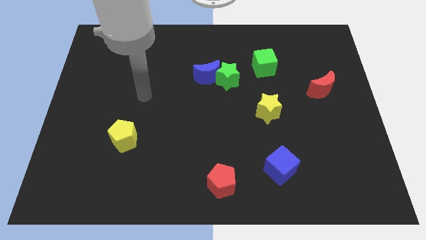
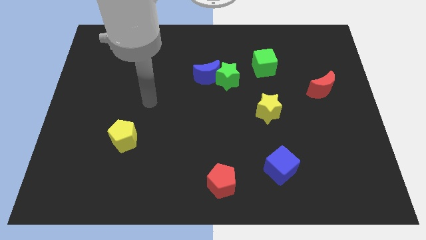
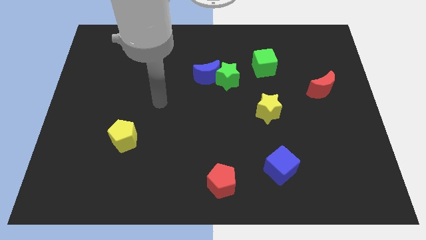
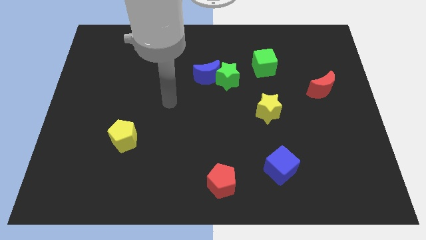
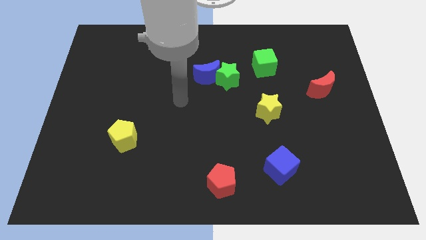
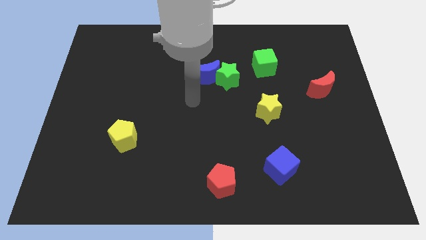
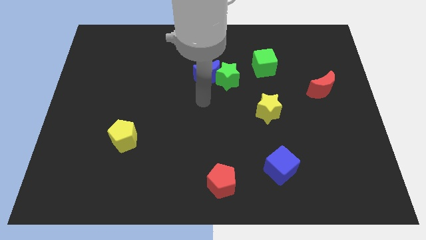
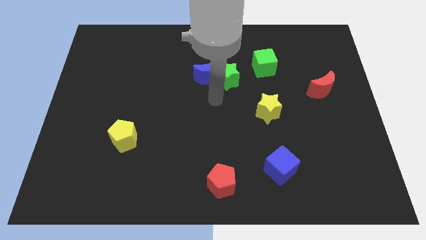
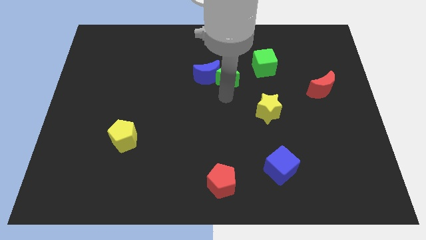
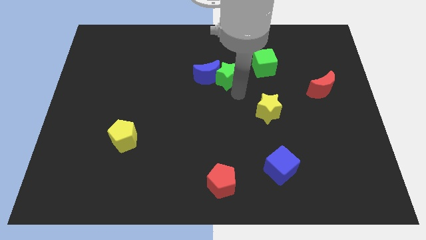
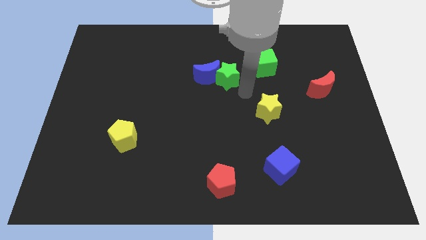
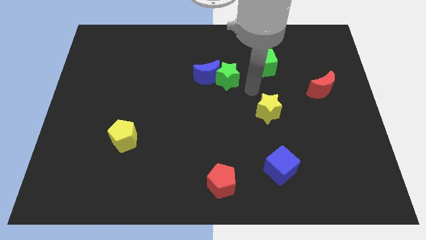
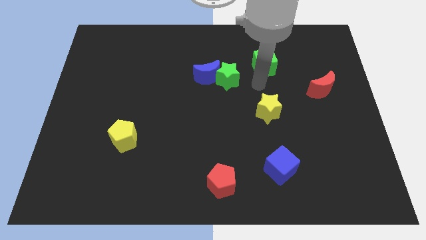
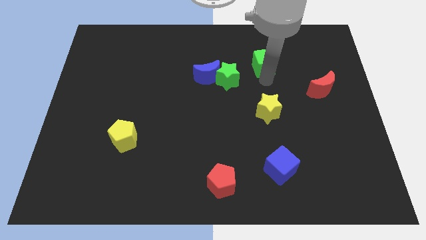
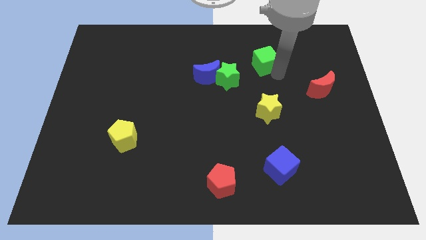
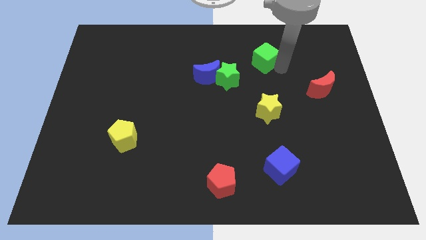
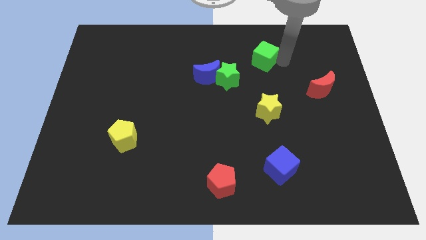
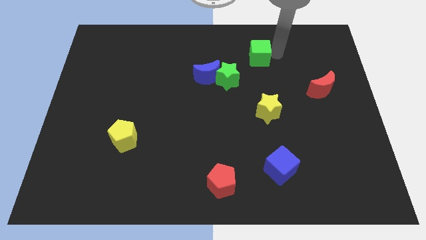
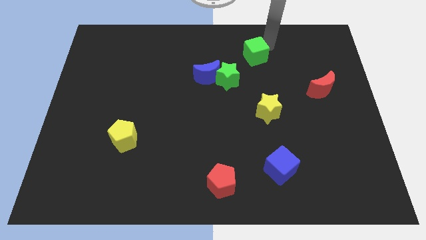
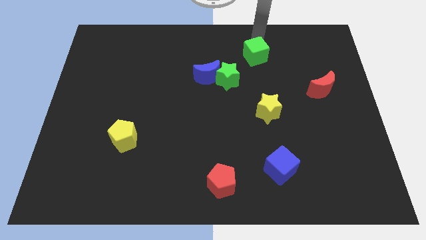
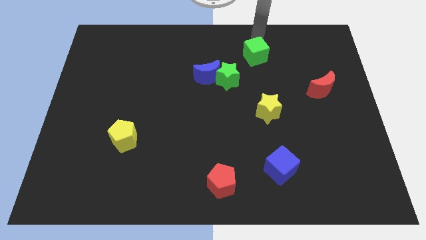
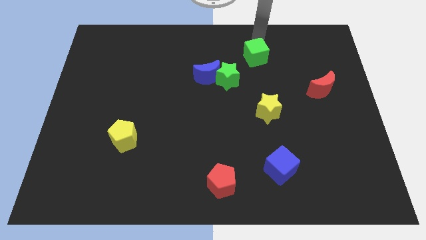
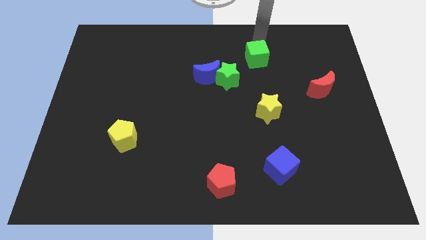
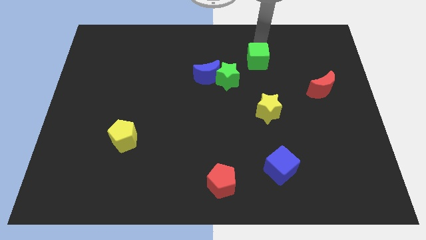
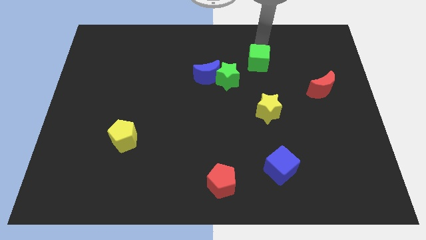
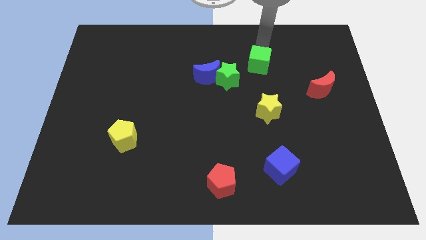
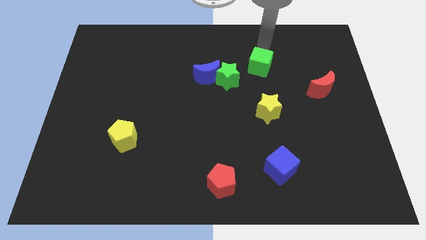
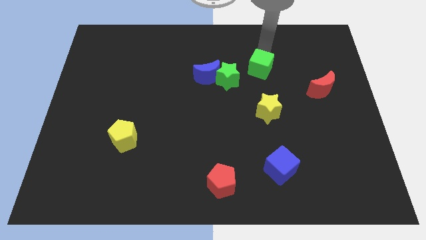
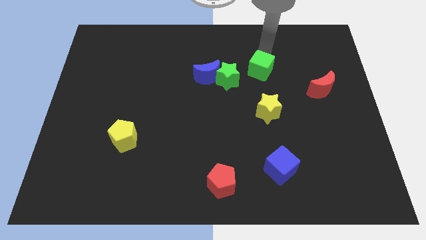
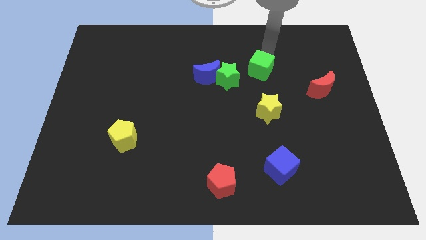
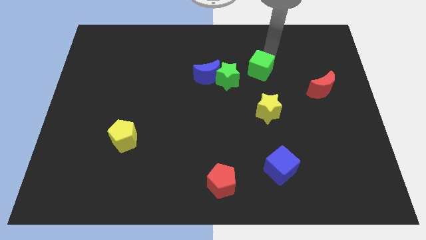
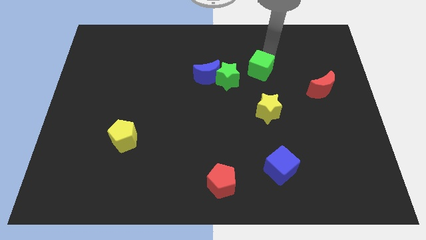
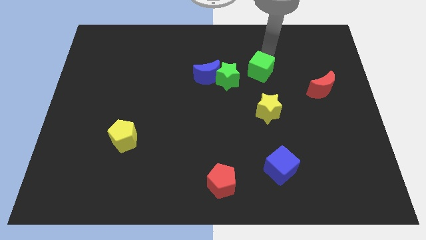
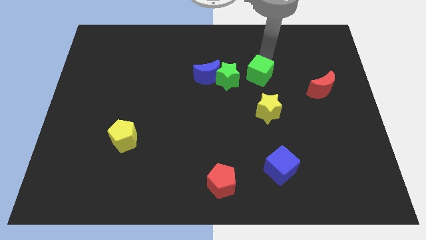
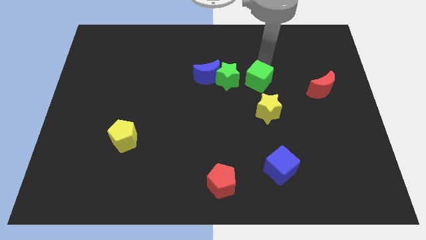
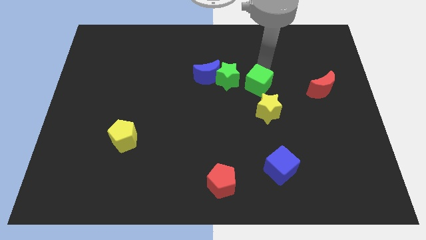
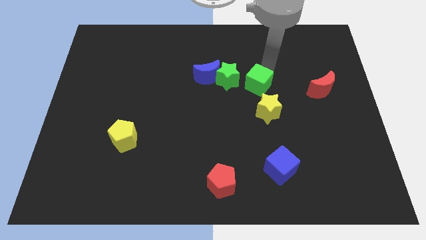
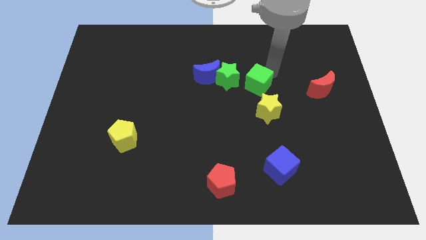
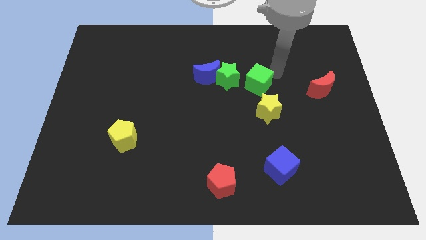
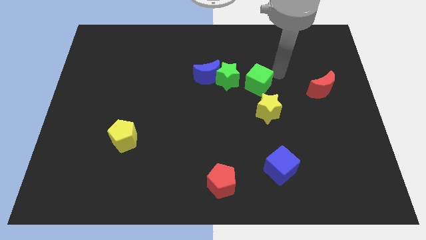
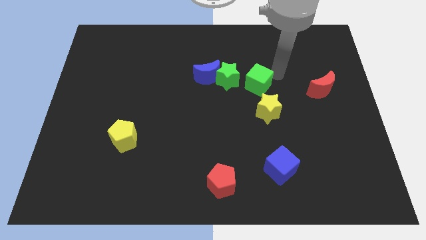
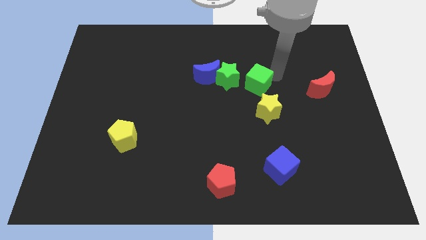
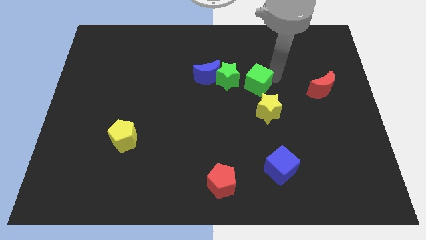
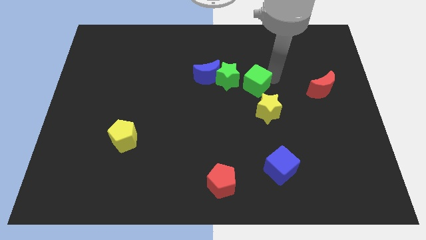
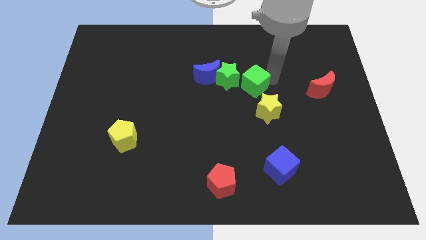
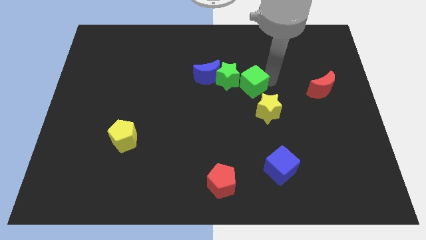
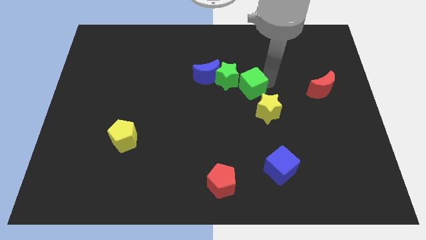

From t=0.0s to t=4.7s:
slide the green cube diagonally downwards and to the left a little bit

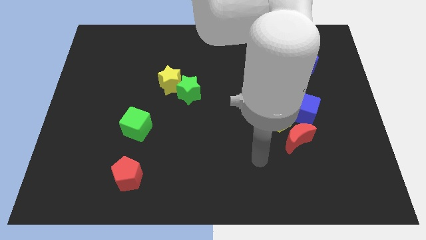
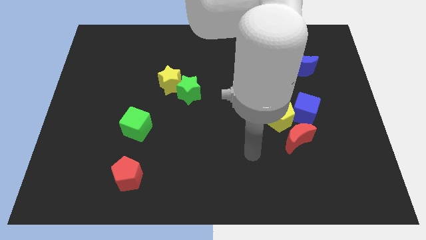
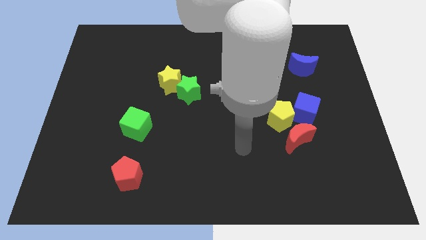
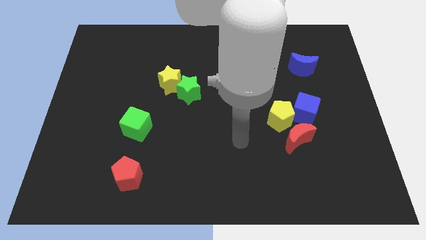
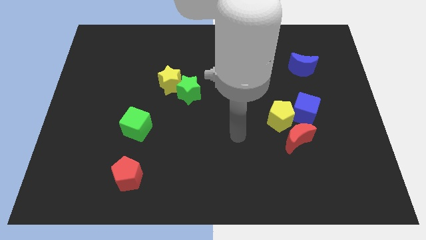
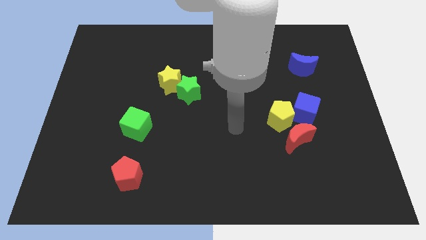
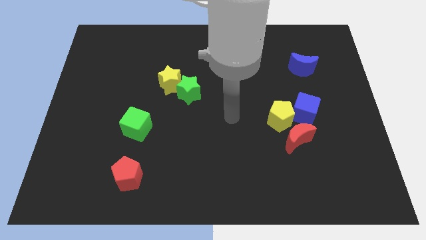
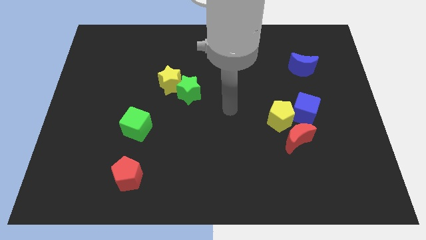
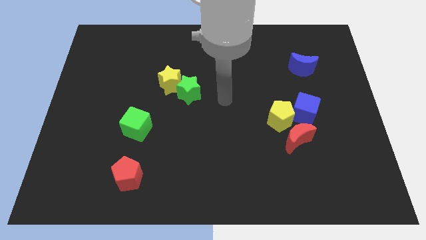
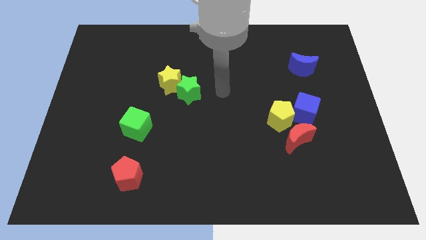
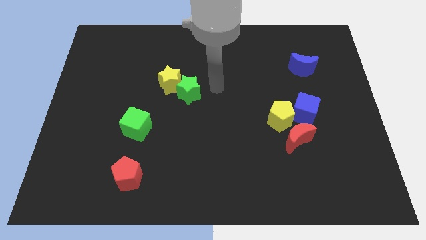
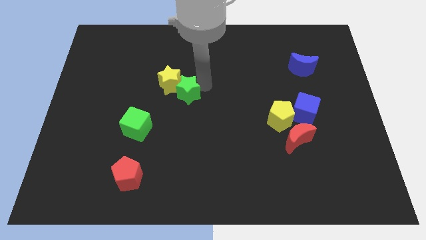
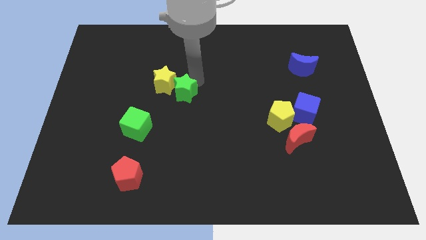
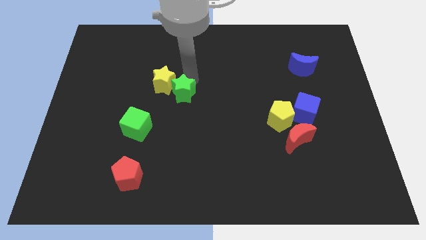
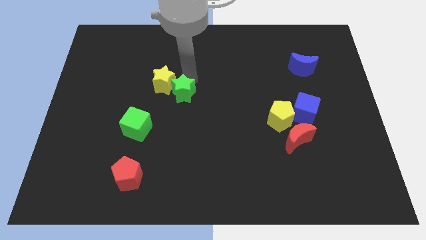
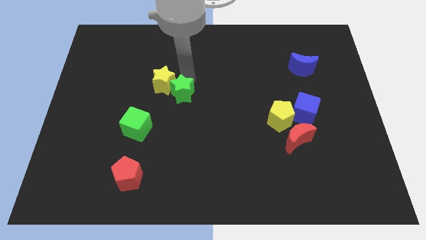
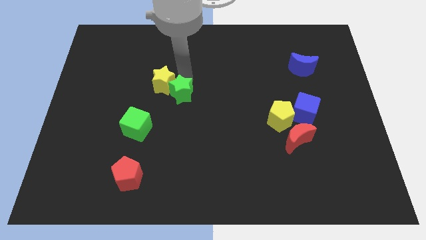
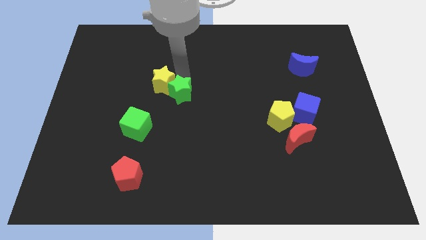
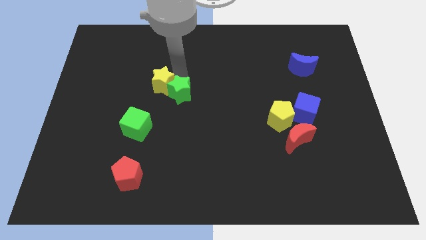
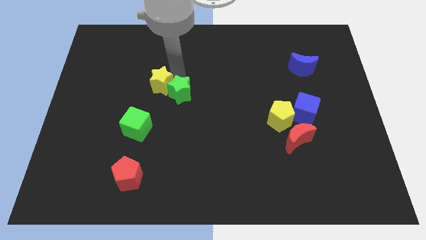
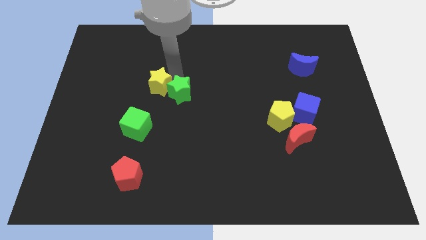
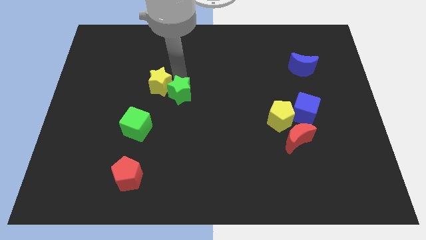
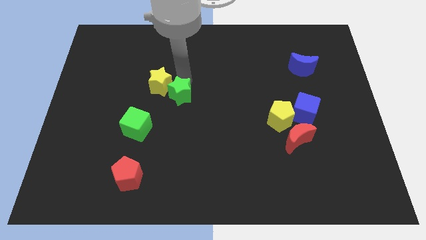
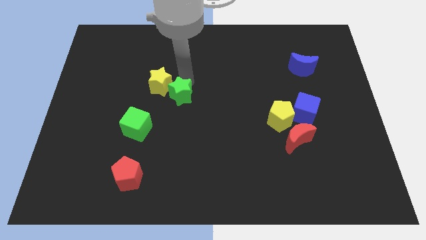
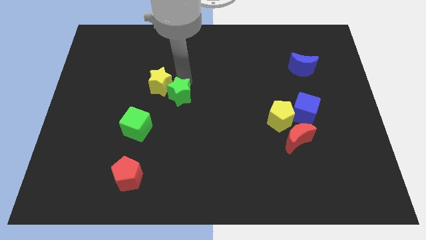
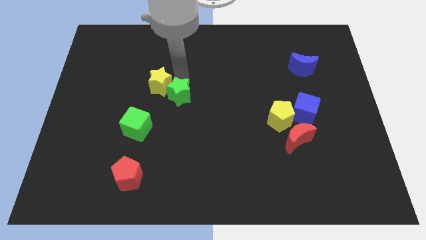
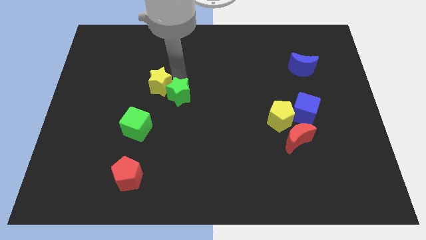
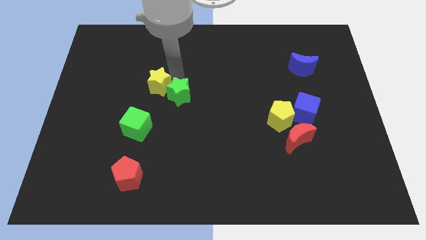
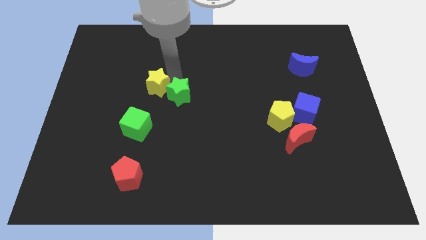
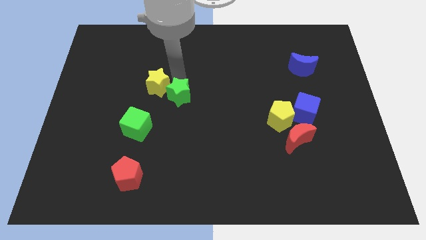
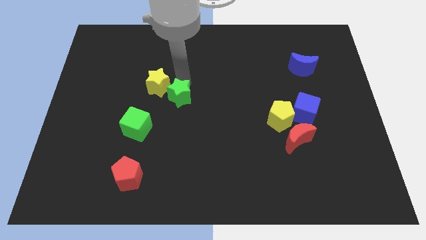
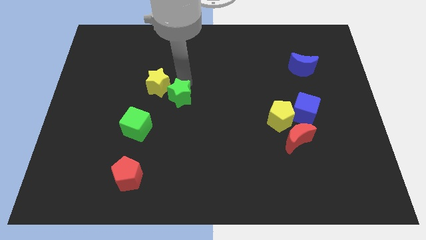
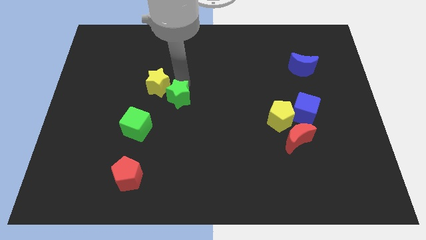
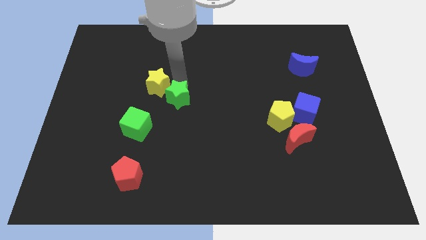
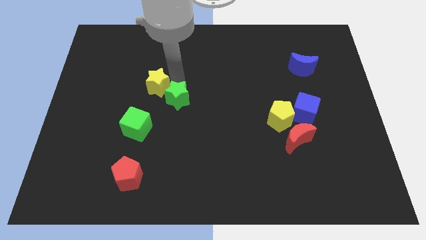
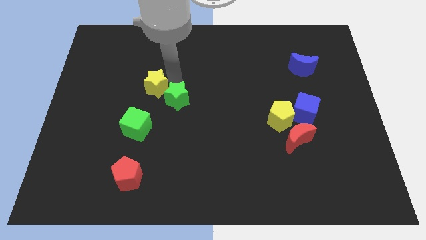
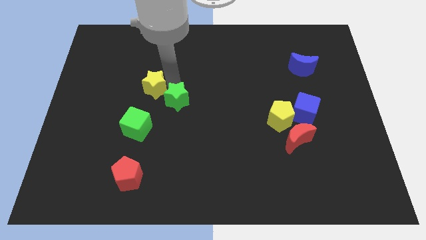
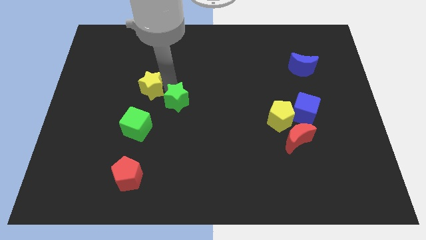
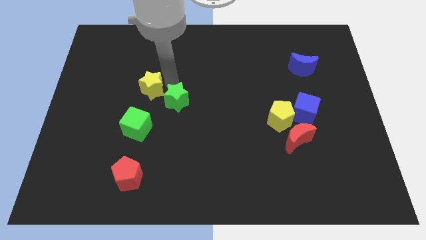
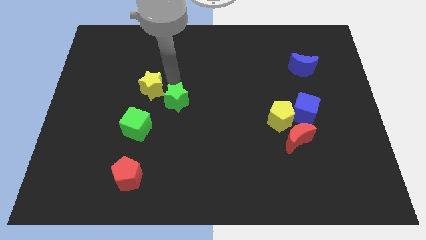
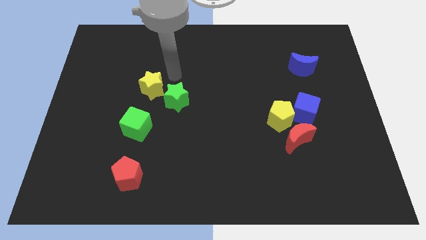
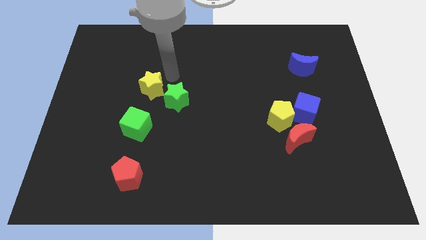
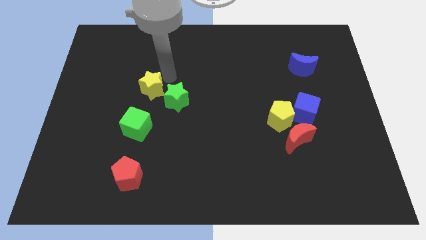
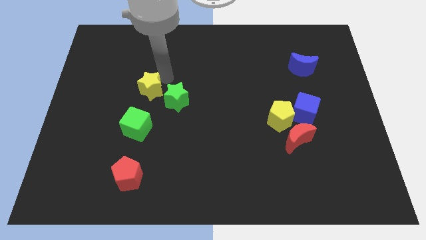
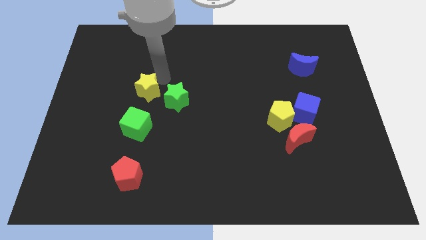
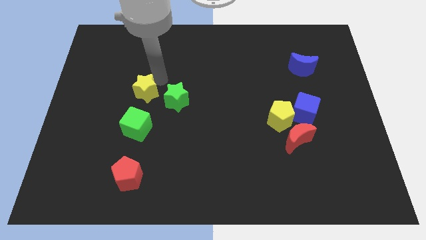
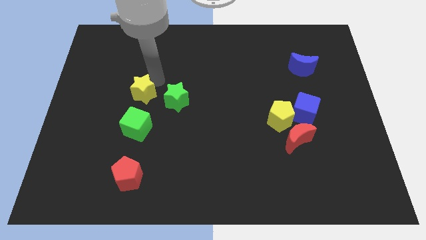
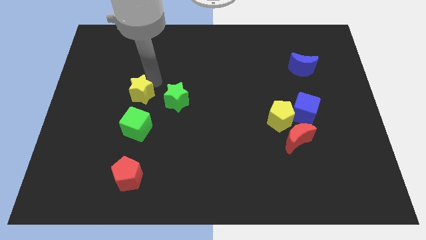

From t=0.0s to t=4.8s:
slightly push the yellow star downwards and left
